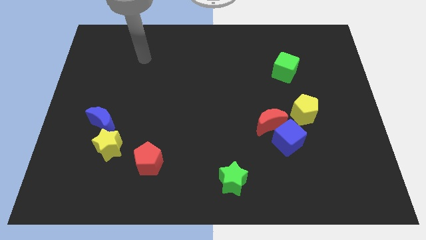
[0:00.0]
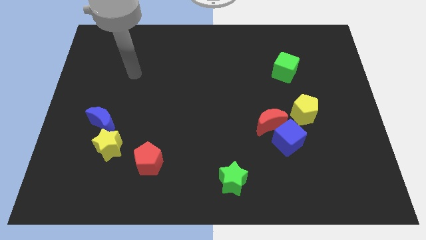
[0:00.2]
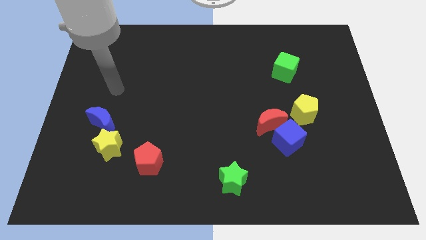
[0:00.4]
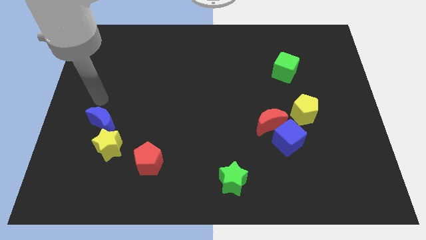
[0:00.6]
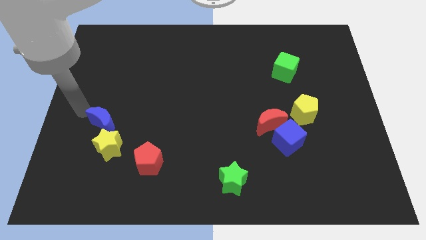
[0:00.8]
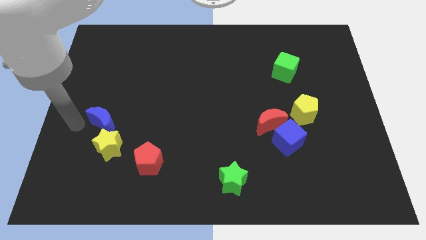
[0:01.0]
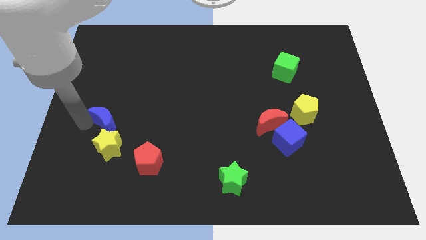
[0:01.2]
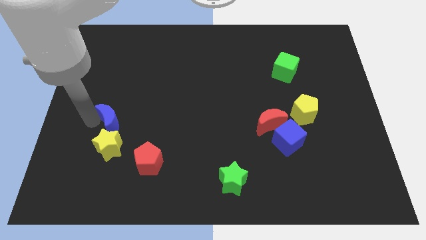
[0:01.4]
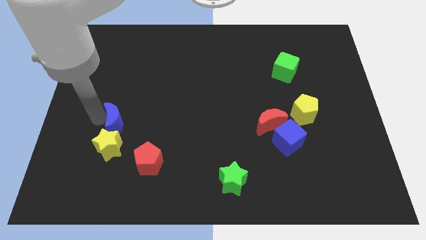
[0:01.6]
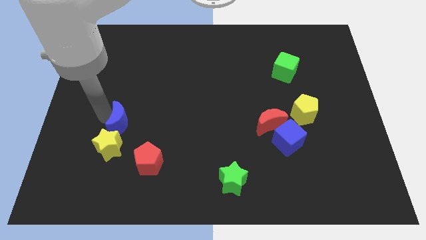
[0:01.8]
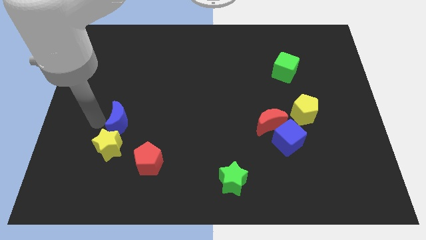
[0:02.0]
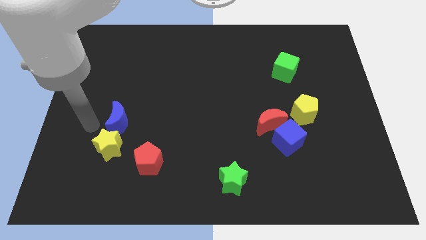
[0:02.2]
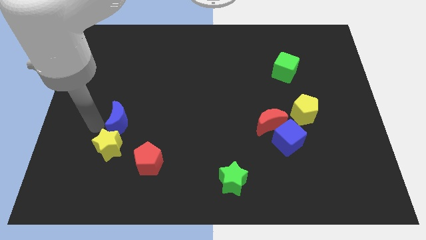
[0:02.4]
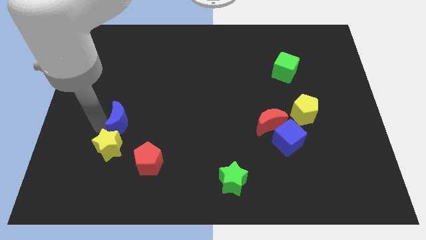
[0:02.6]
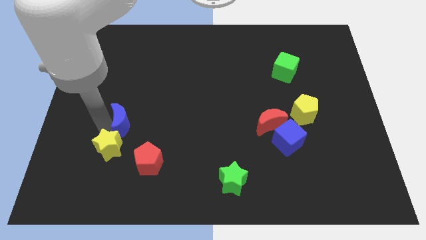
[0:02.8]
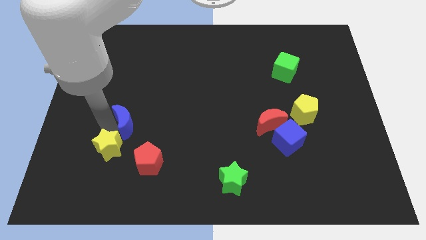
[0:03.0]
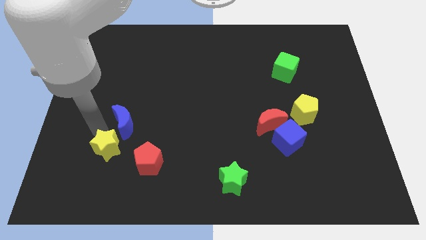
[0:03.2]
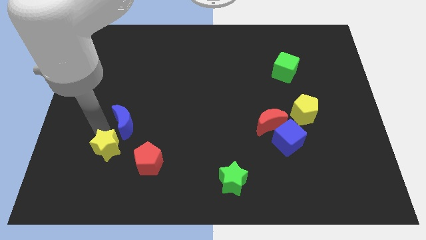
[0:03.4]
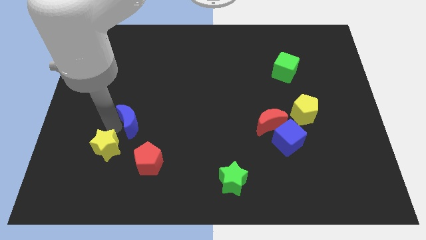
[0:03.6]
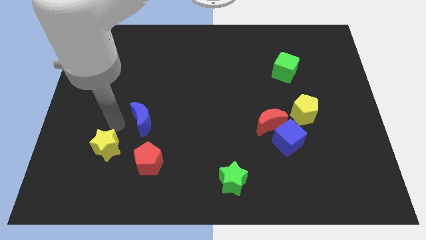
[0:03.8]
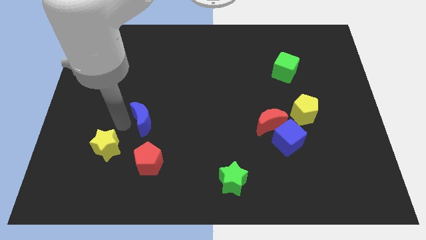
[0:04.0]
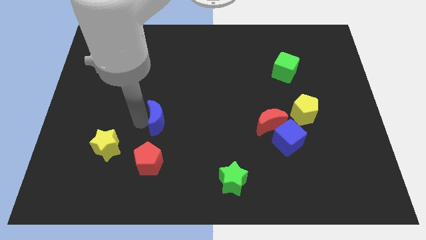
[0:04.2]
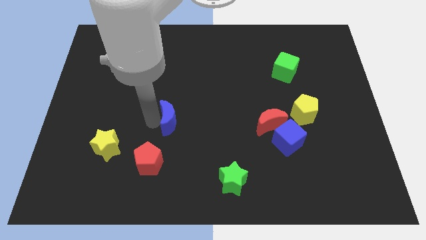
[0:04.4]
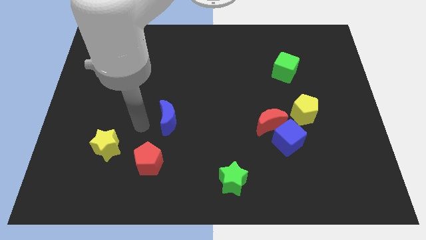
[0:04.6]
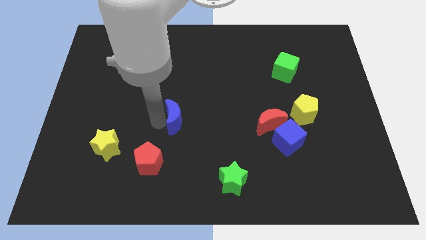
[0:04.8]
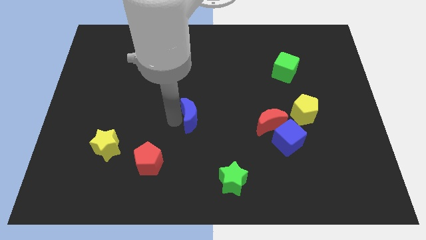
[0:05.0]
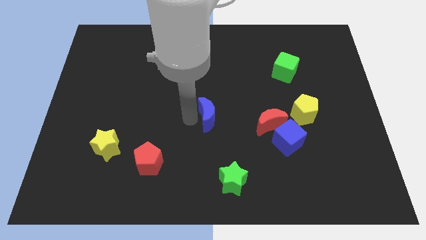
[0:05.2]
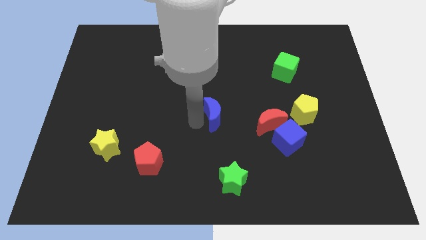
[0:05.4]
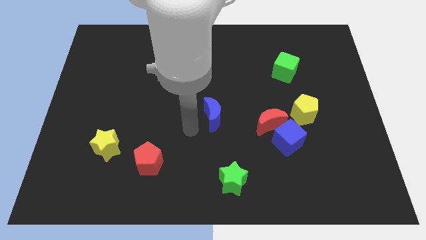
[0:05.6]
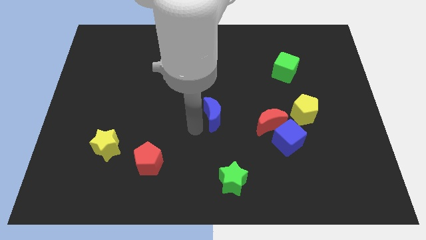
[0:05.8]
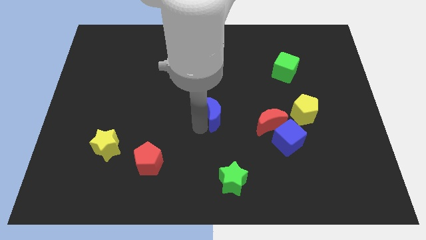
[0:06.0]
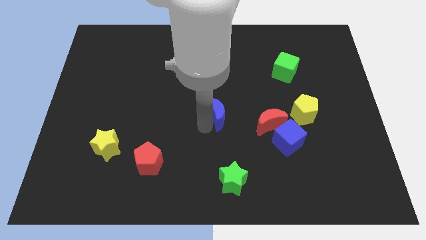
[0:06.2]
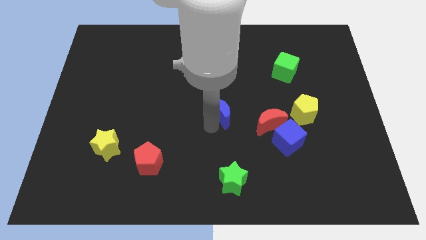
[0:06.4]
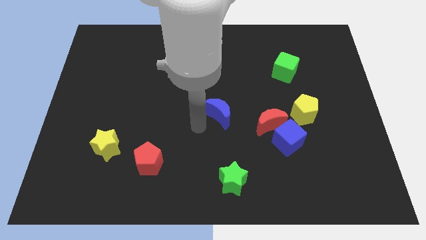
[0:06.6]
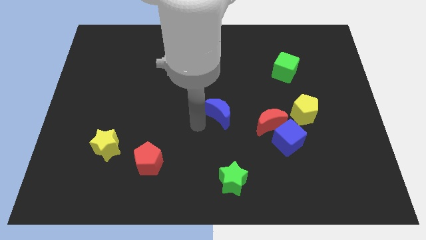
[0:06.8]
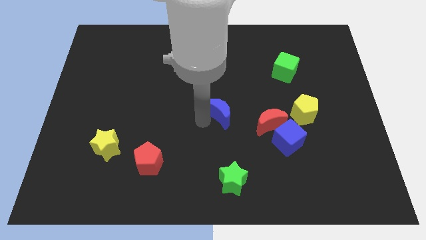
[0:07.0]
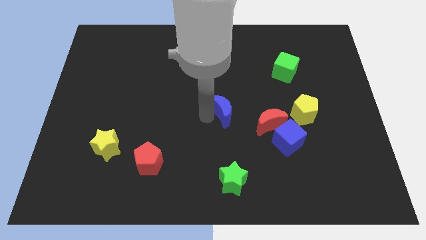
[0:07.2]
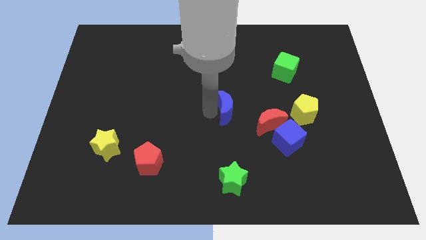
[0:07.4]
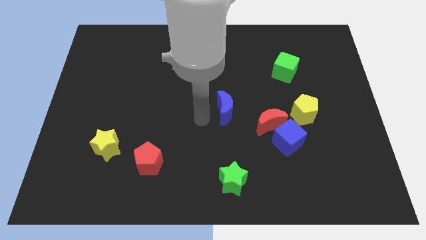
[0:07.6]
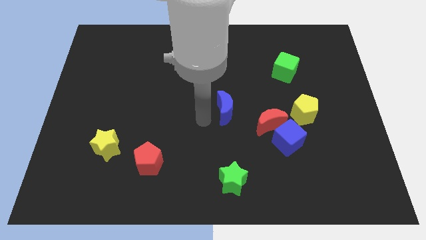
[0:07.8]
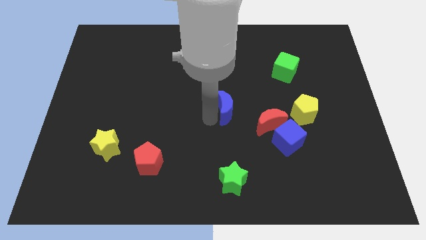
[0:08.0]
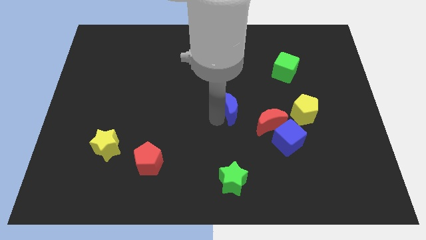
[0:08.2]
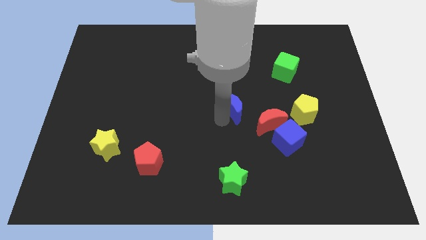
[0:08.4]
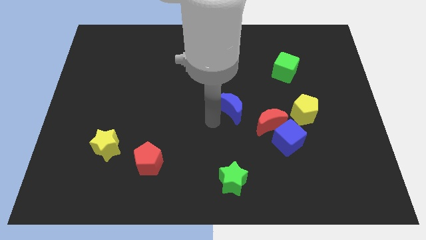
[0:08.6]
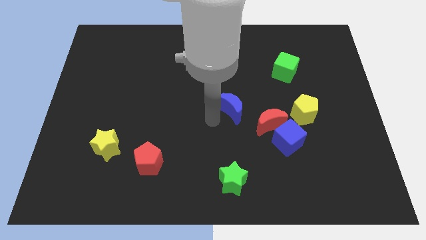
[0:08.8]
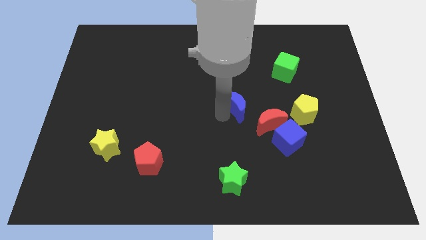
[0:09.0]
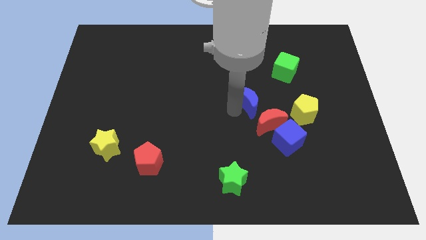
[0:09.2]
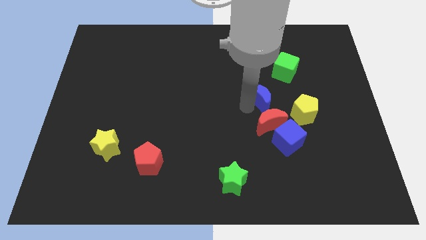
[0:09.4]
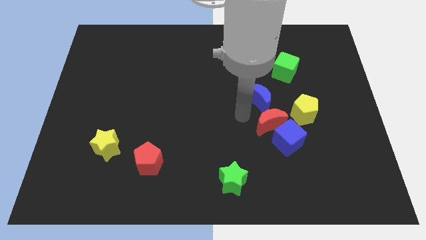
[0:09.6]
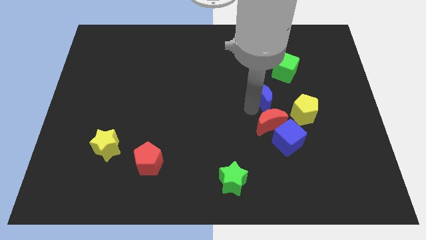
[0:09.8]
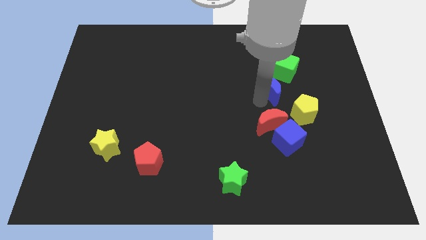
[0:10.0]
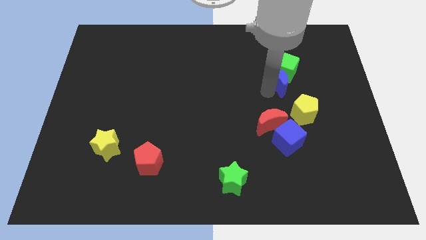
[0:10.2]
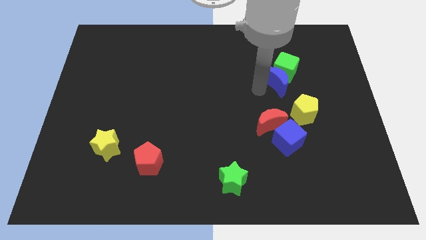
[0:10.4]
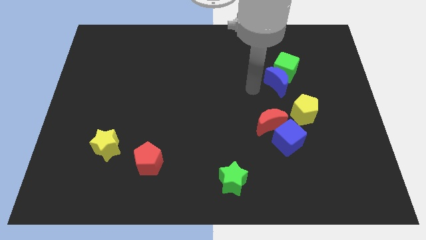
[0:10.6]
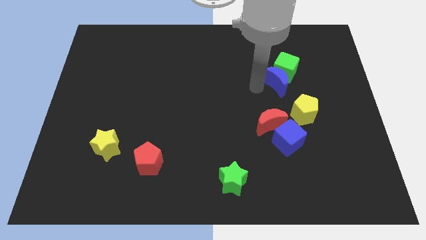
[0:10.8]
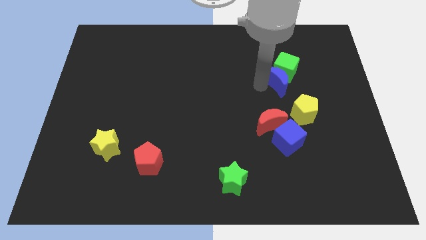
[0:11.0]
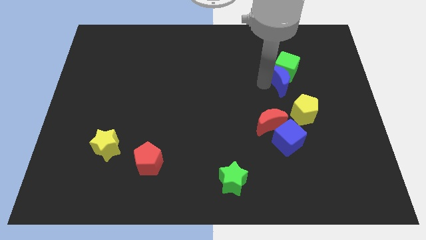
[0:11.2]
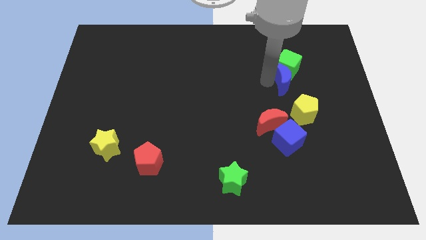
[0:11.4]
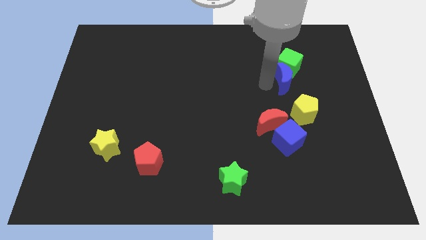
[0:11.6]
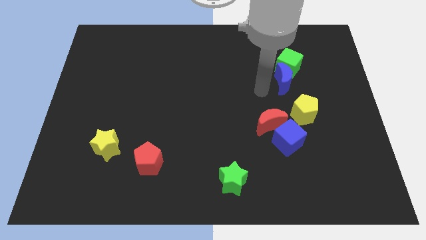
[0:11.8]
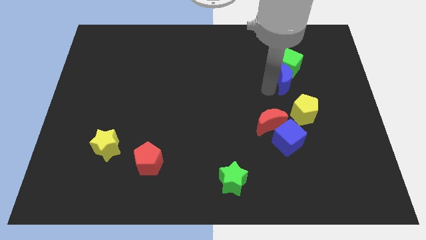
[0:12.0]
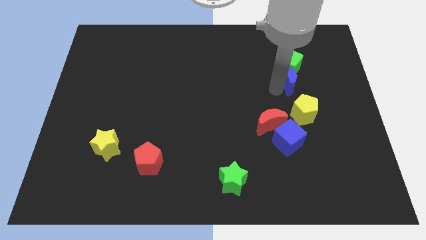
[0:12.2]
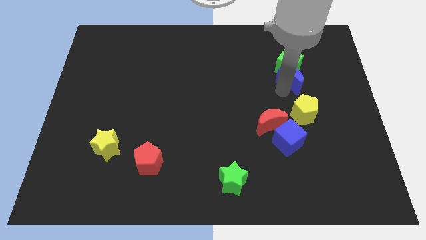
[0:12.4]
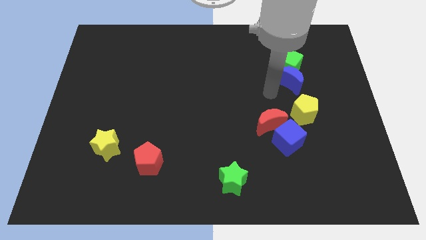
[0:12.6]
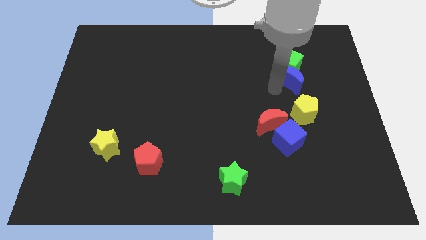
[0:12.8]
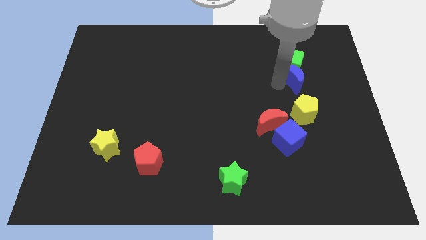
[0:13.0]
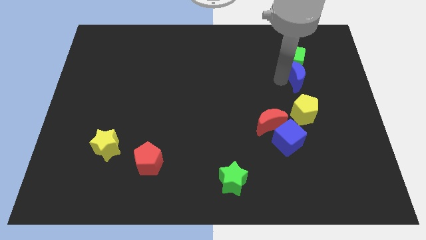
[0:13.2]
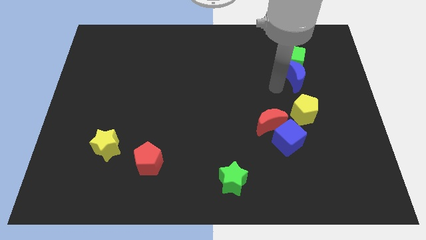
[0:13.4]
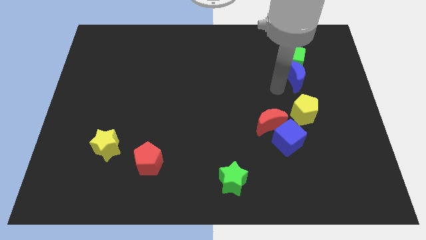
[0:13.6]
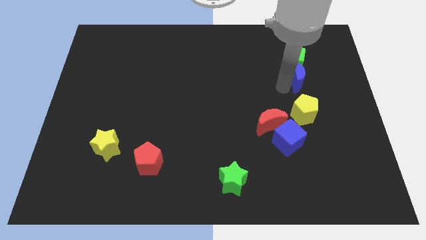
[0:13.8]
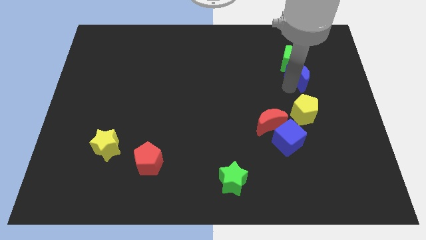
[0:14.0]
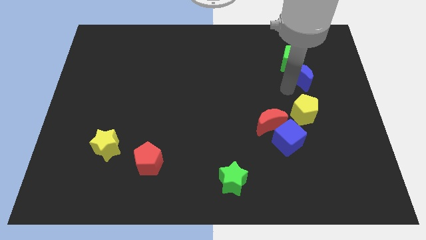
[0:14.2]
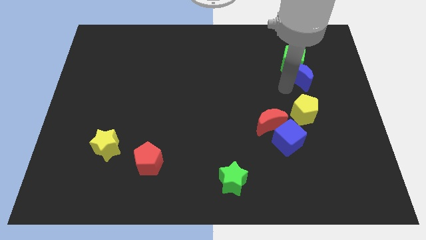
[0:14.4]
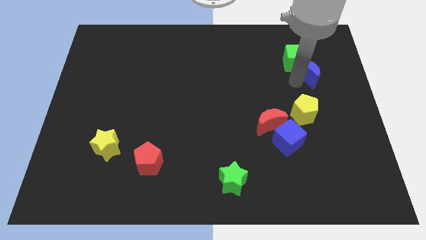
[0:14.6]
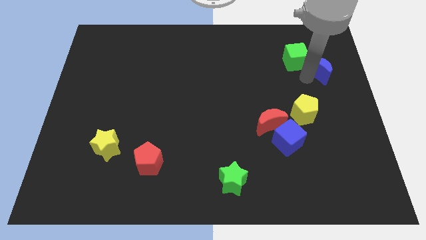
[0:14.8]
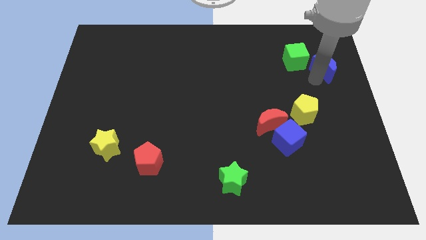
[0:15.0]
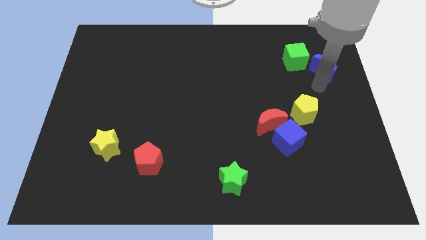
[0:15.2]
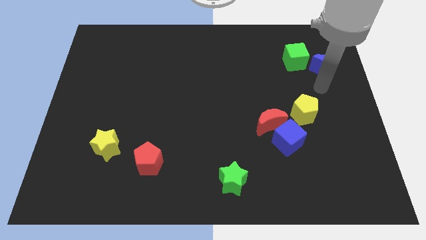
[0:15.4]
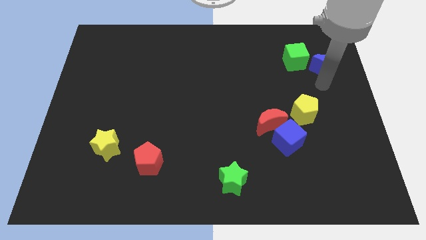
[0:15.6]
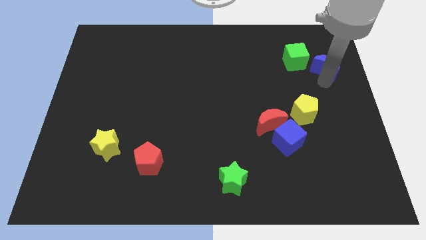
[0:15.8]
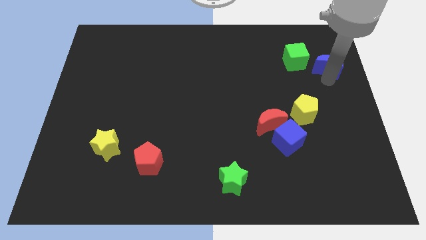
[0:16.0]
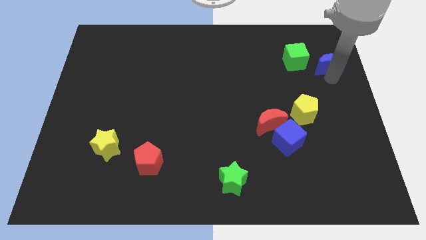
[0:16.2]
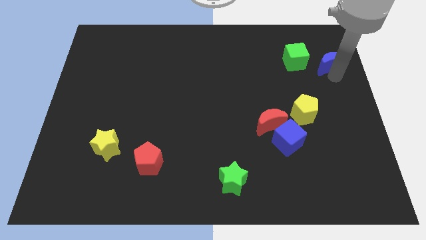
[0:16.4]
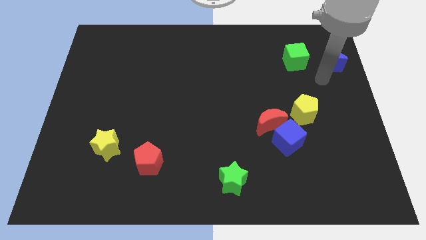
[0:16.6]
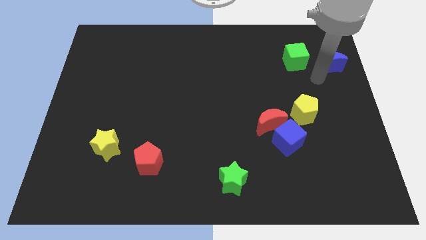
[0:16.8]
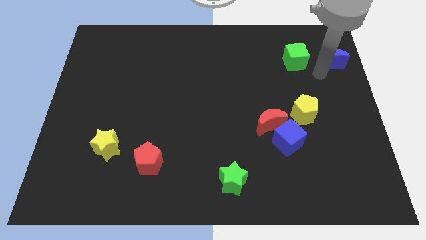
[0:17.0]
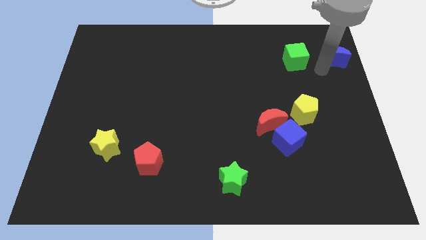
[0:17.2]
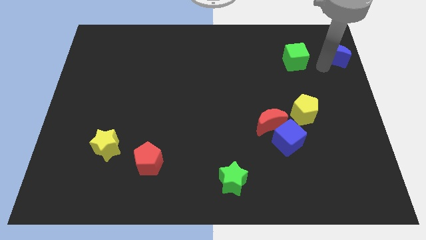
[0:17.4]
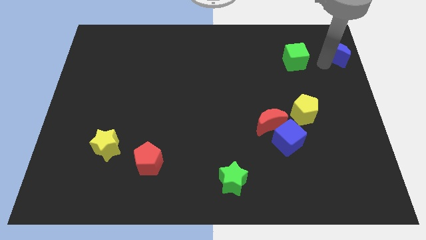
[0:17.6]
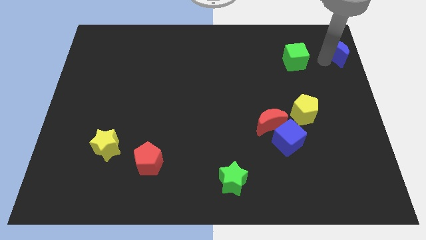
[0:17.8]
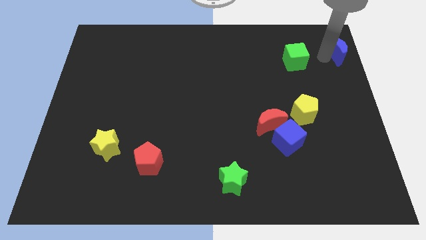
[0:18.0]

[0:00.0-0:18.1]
push the blue moon to the top right of the board
